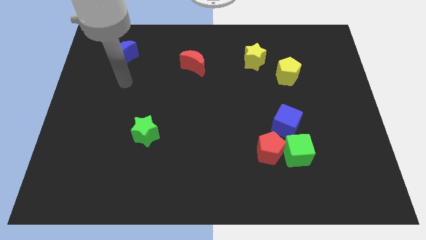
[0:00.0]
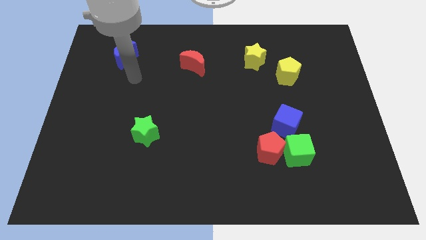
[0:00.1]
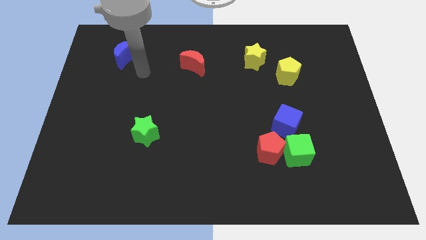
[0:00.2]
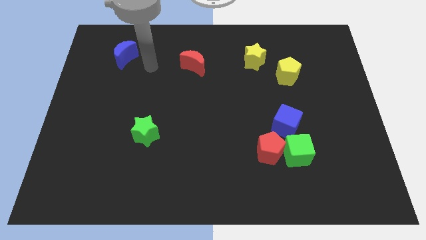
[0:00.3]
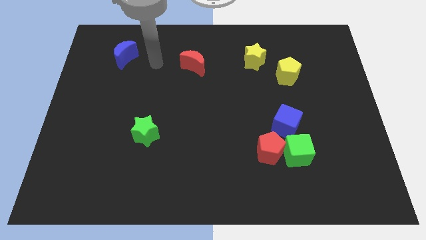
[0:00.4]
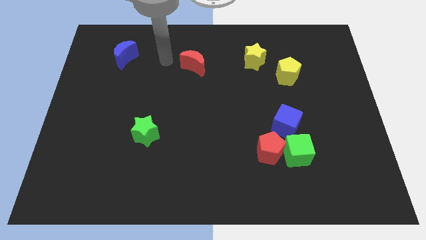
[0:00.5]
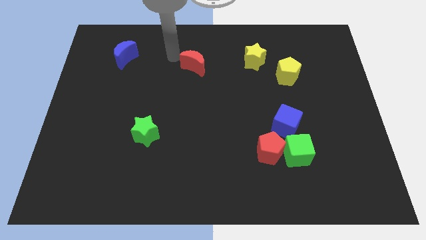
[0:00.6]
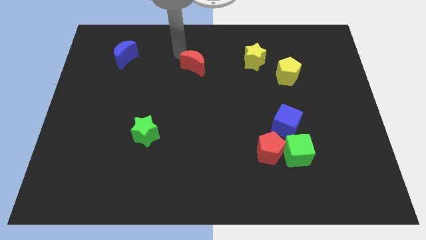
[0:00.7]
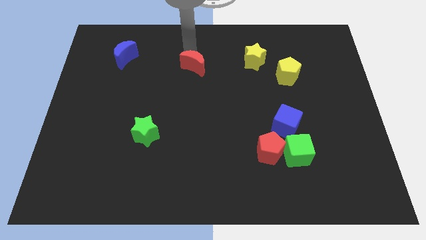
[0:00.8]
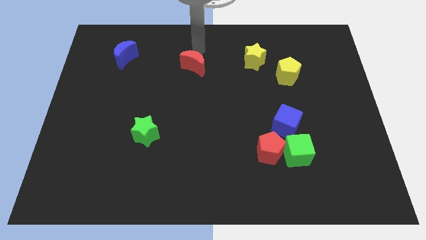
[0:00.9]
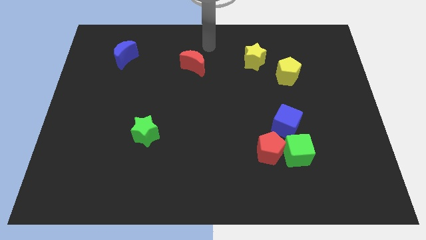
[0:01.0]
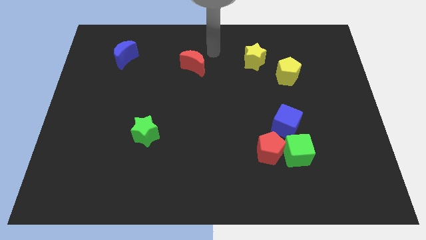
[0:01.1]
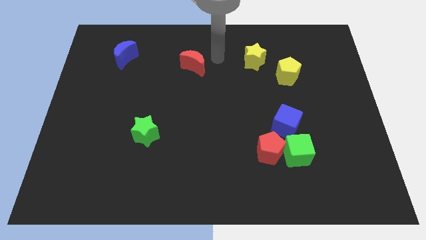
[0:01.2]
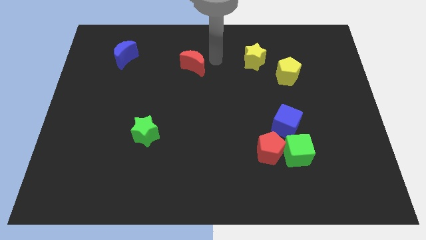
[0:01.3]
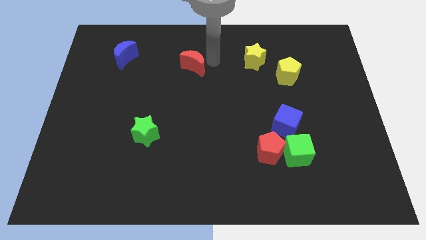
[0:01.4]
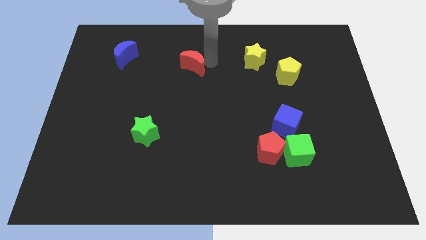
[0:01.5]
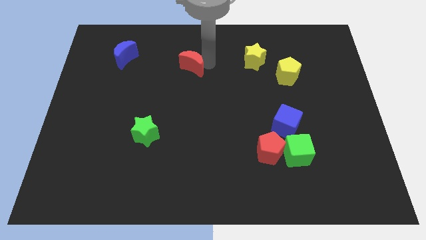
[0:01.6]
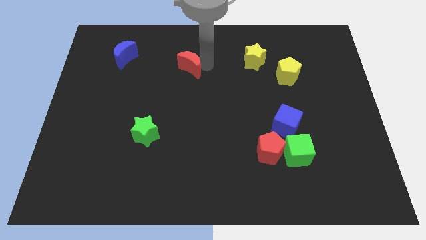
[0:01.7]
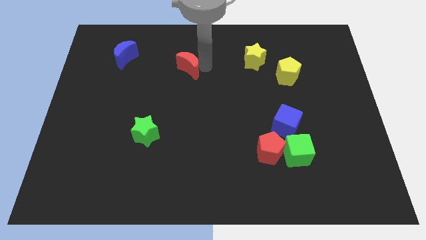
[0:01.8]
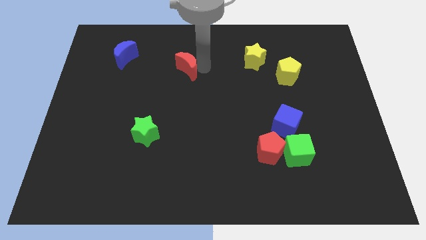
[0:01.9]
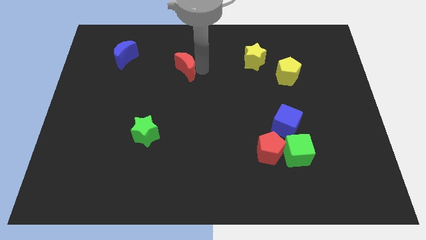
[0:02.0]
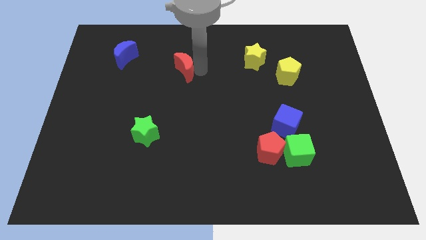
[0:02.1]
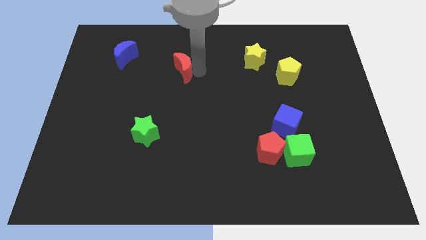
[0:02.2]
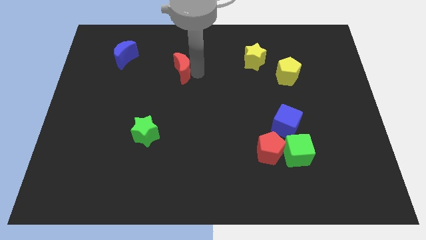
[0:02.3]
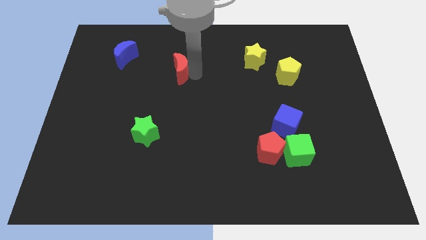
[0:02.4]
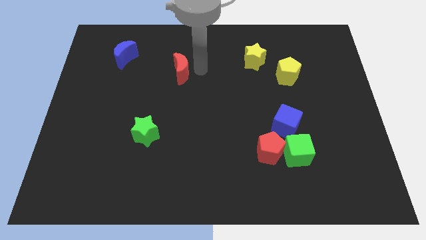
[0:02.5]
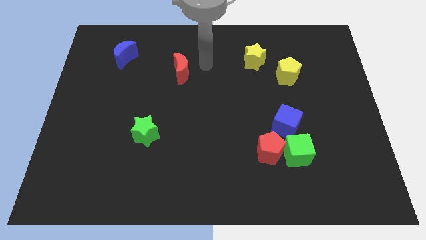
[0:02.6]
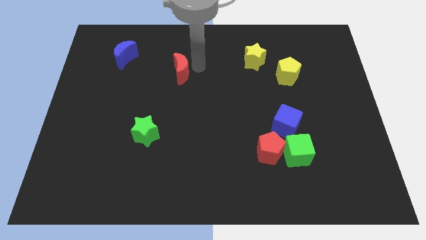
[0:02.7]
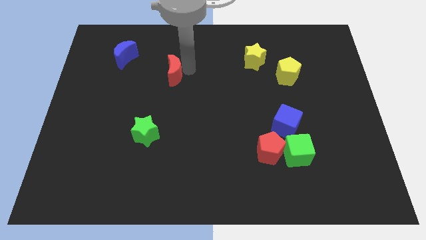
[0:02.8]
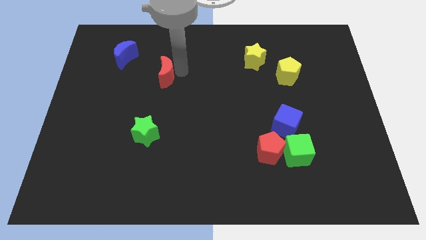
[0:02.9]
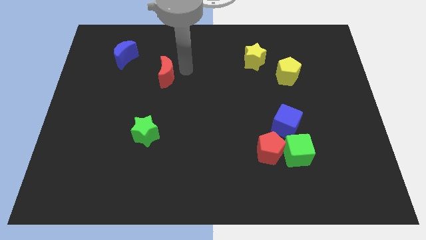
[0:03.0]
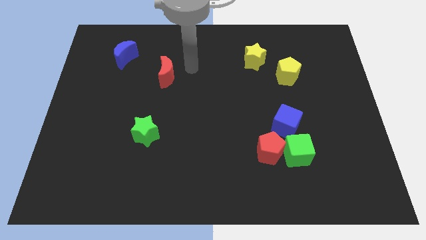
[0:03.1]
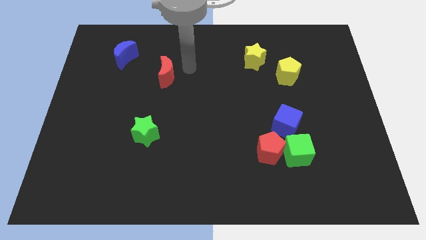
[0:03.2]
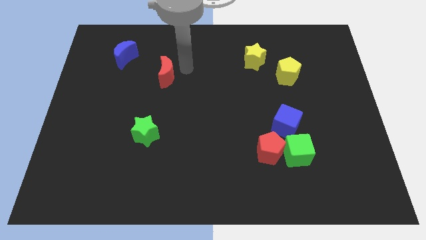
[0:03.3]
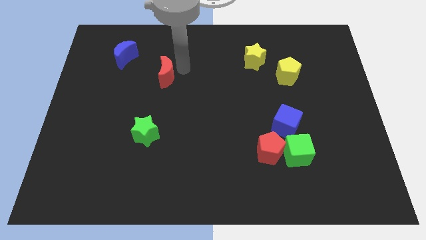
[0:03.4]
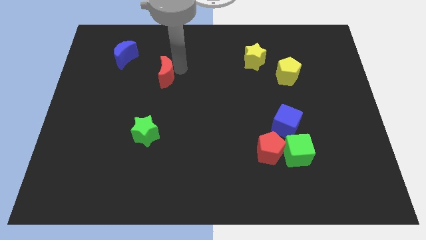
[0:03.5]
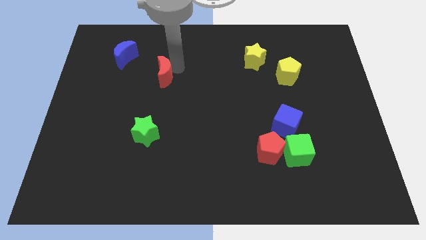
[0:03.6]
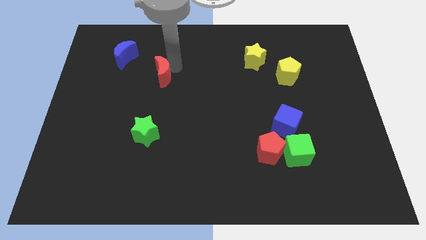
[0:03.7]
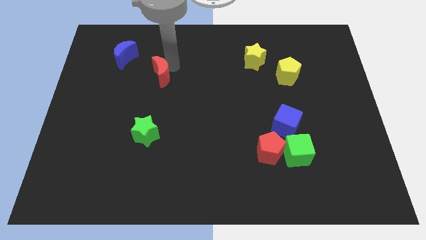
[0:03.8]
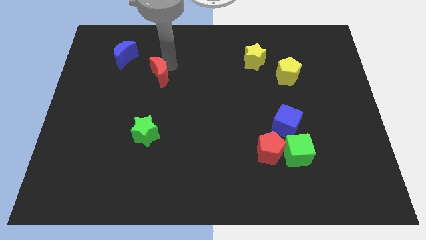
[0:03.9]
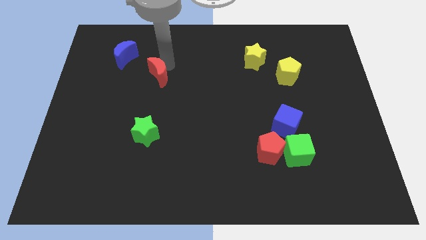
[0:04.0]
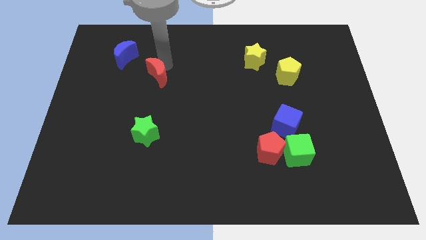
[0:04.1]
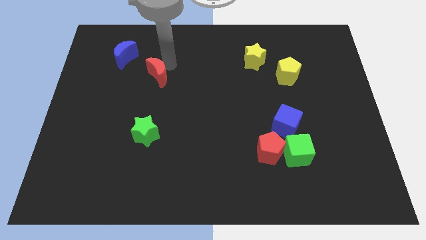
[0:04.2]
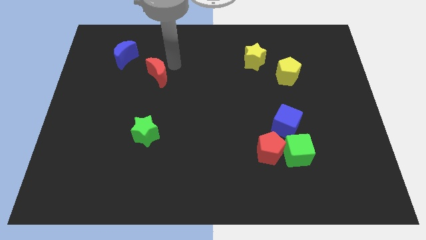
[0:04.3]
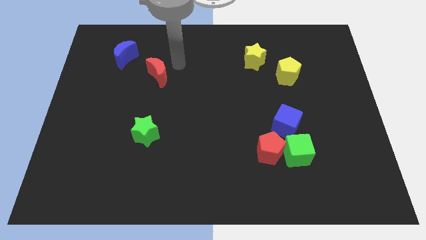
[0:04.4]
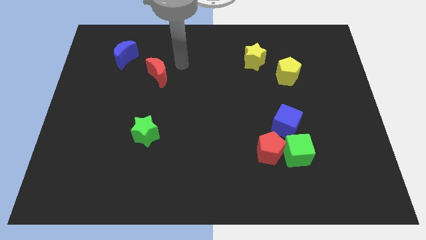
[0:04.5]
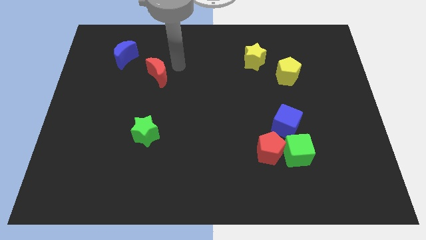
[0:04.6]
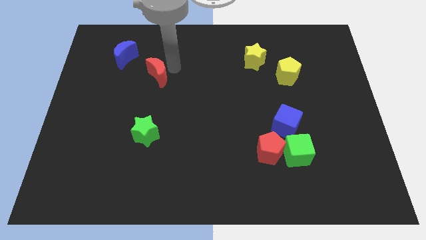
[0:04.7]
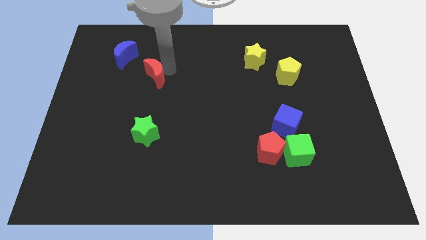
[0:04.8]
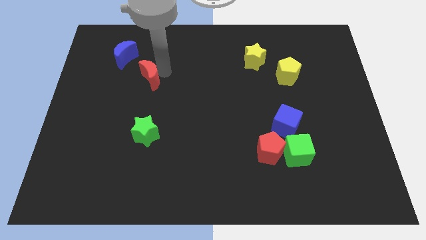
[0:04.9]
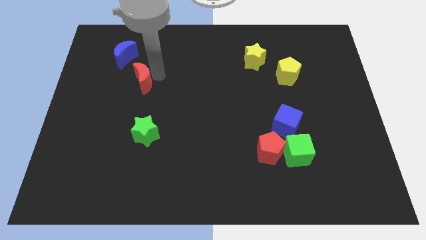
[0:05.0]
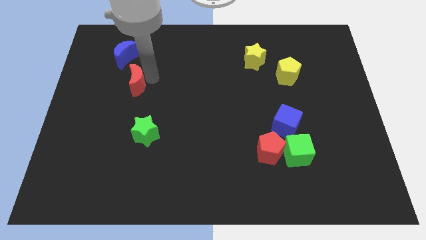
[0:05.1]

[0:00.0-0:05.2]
slide the red moon to the bottom of the blue moon

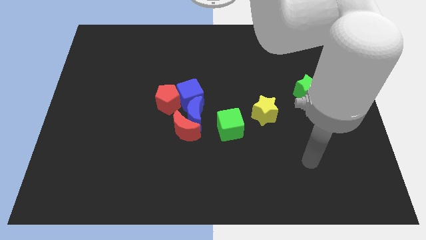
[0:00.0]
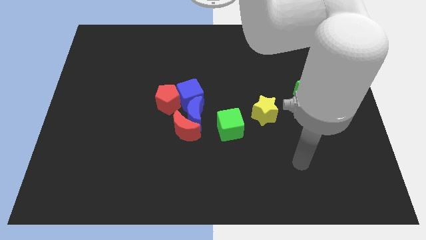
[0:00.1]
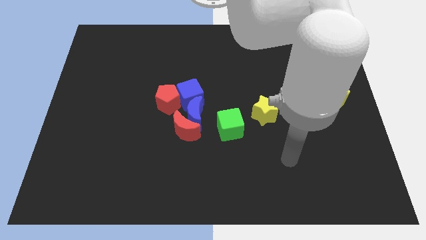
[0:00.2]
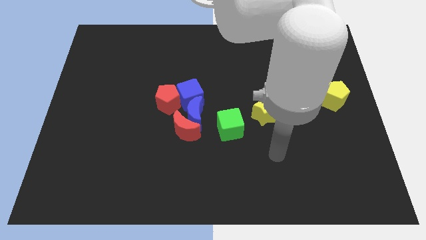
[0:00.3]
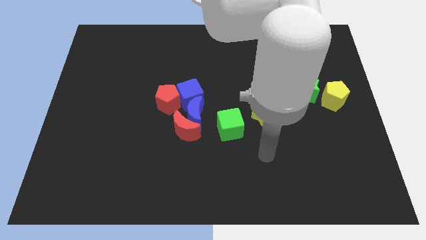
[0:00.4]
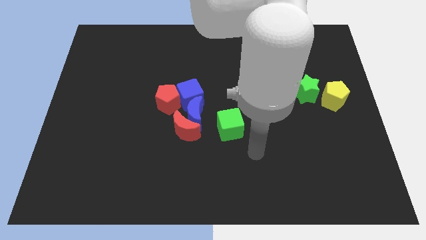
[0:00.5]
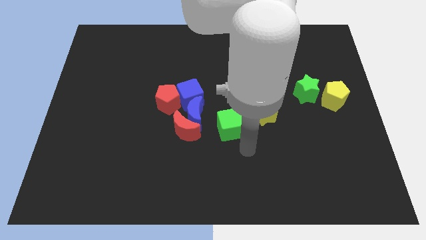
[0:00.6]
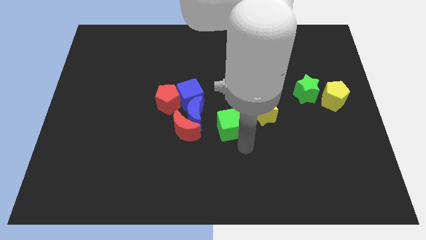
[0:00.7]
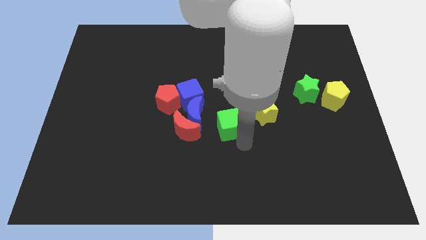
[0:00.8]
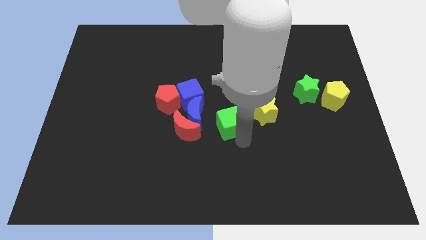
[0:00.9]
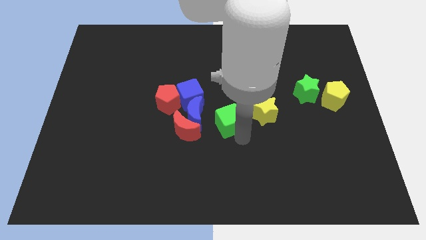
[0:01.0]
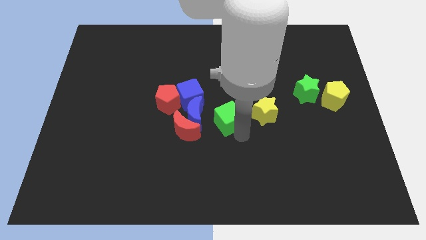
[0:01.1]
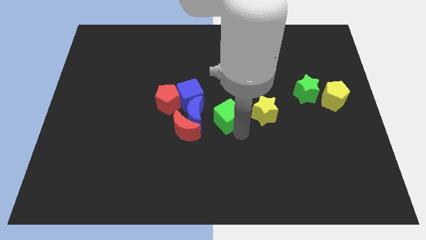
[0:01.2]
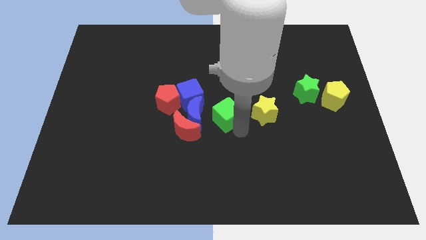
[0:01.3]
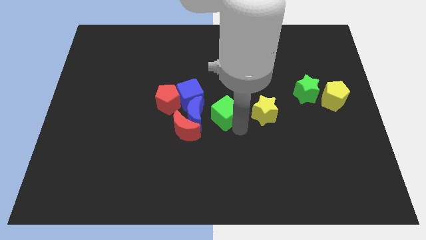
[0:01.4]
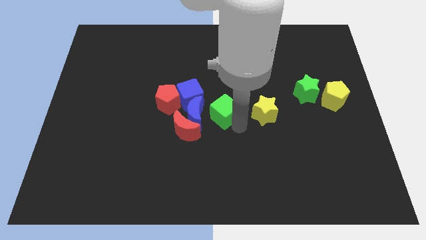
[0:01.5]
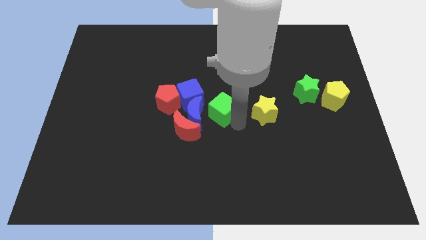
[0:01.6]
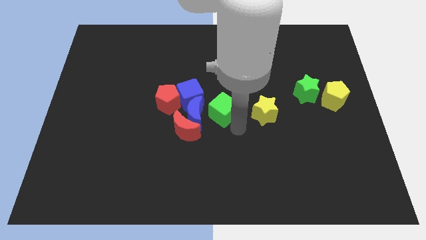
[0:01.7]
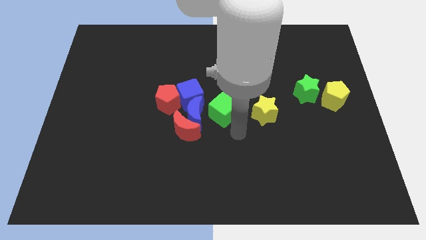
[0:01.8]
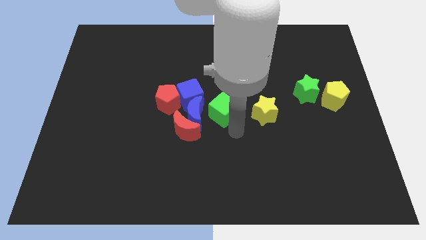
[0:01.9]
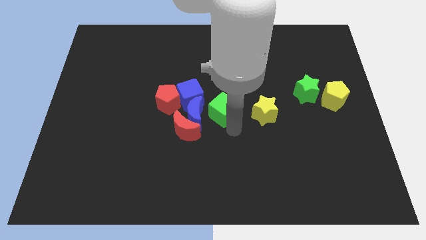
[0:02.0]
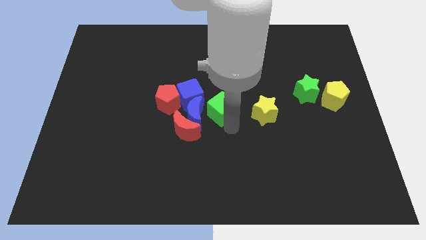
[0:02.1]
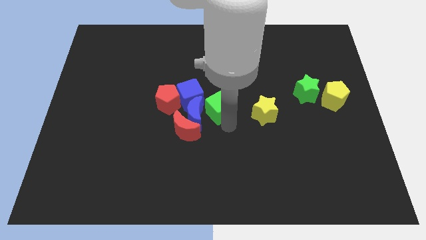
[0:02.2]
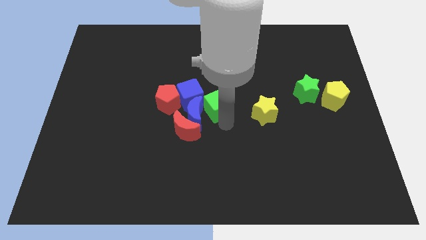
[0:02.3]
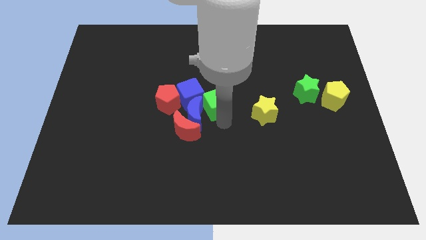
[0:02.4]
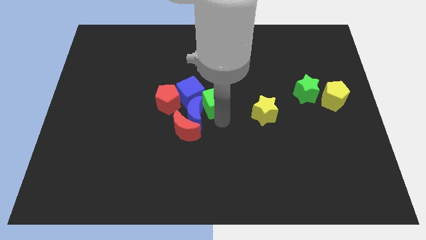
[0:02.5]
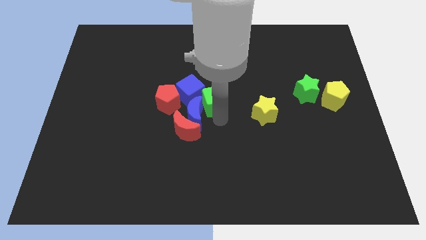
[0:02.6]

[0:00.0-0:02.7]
push the green cube to the top of the blue moon
